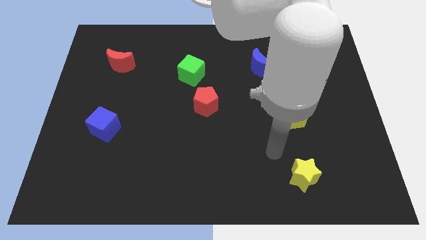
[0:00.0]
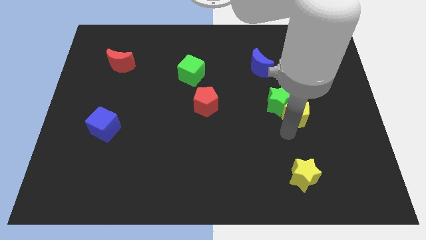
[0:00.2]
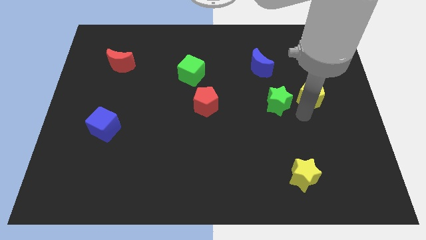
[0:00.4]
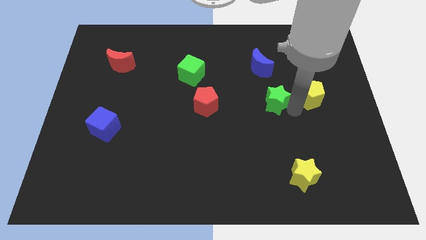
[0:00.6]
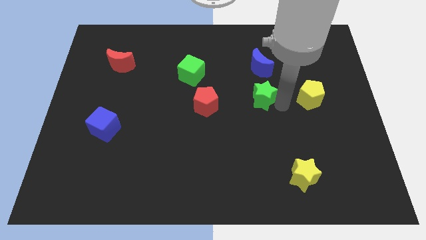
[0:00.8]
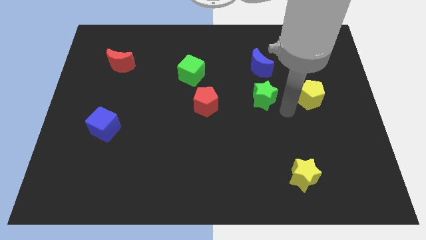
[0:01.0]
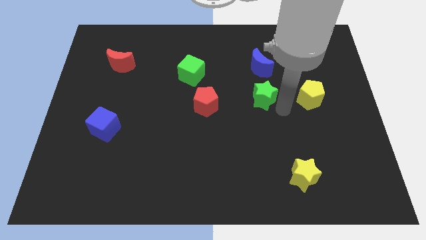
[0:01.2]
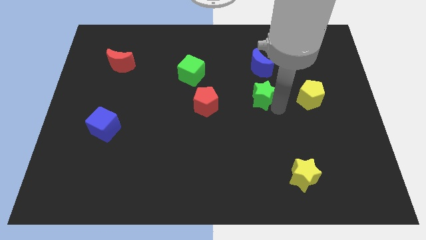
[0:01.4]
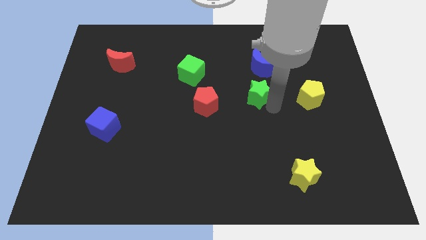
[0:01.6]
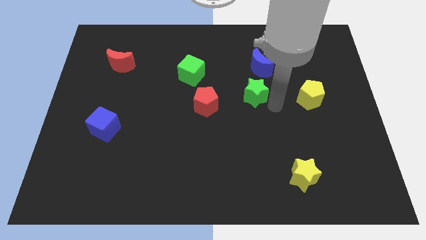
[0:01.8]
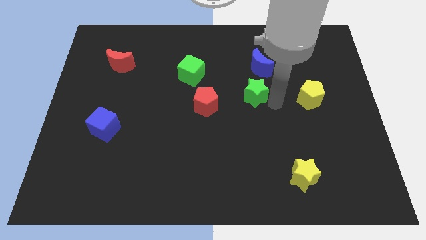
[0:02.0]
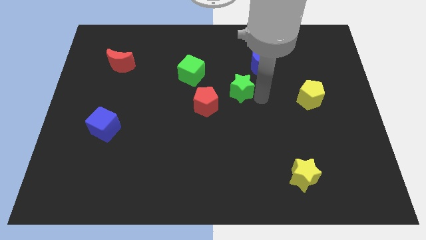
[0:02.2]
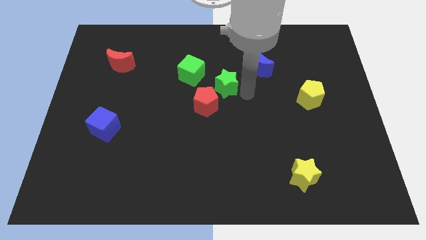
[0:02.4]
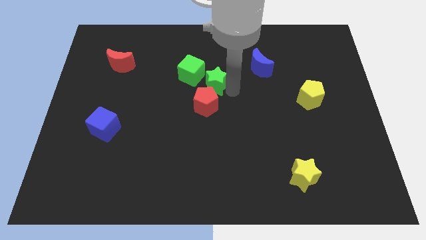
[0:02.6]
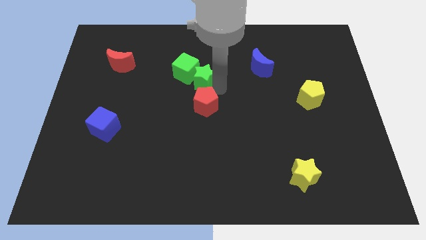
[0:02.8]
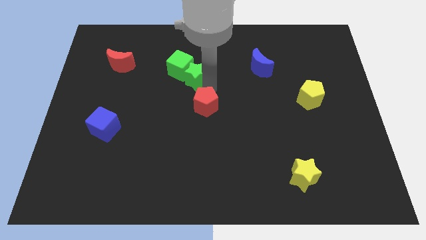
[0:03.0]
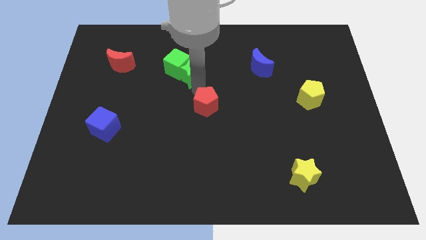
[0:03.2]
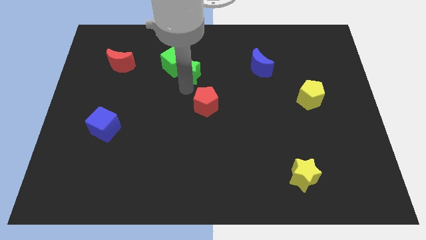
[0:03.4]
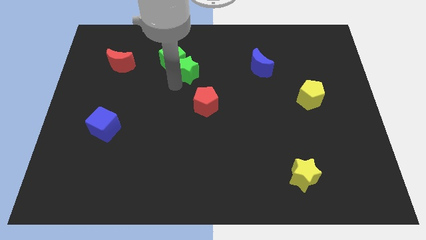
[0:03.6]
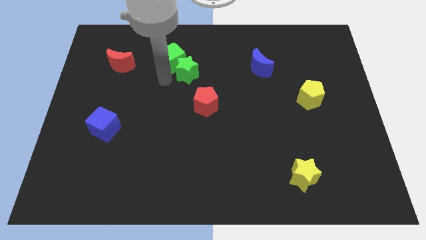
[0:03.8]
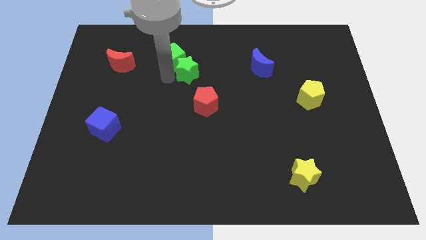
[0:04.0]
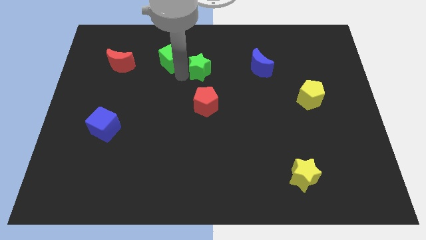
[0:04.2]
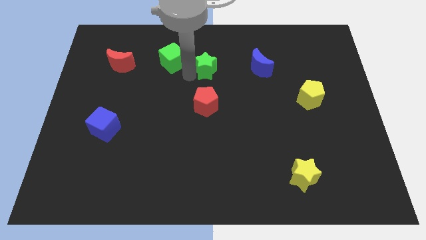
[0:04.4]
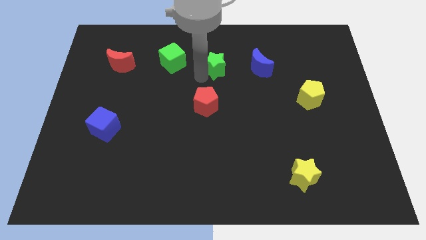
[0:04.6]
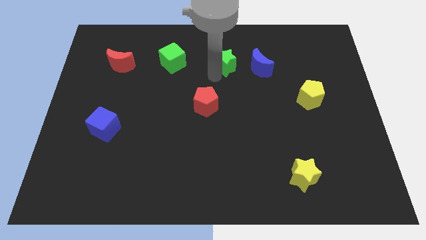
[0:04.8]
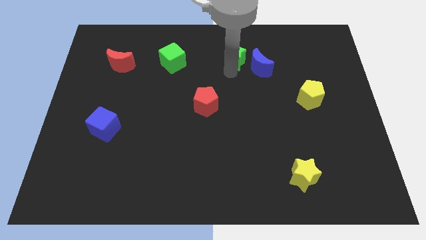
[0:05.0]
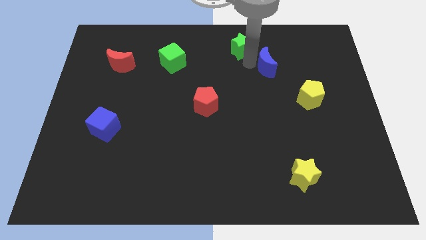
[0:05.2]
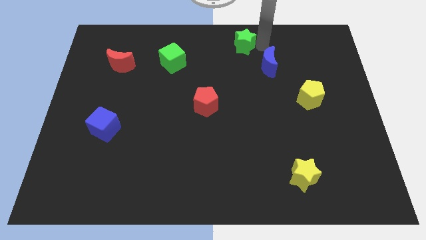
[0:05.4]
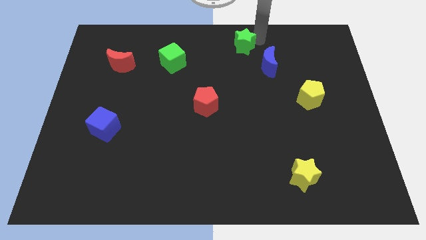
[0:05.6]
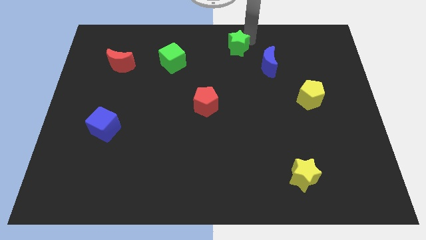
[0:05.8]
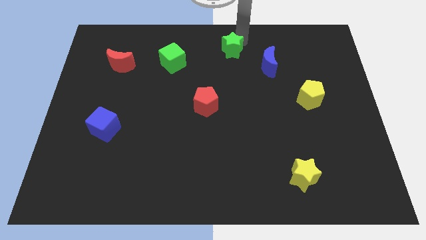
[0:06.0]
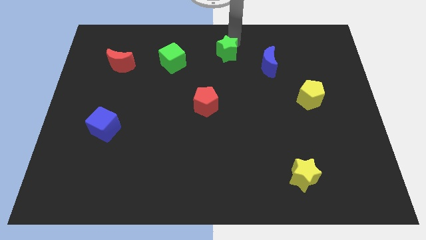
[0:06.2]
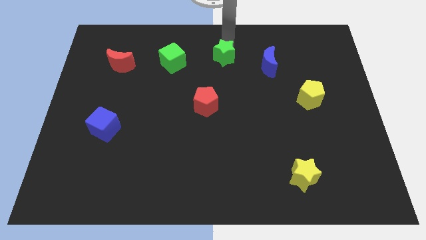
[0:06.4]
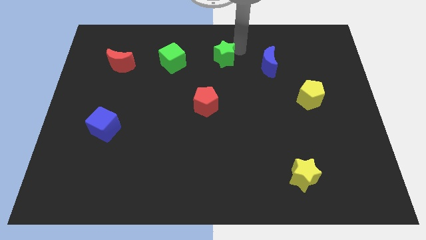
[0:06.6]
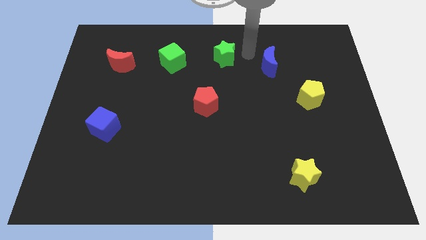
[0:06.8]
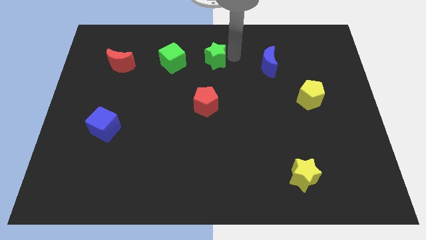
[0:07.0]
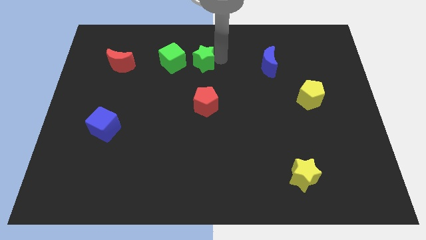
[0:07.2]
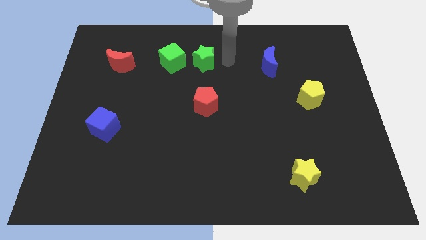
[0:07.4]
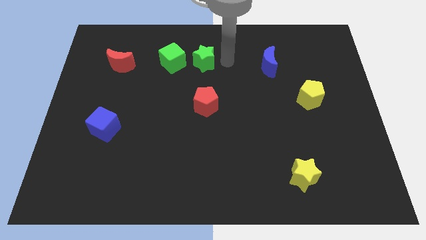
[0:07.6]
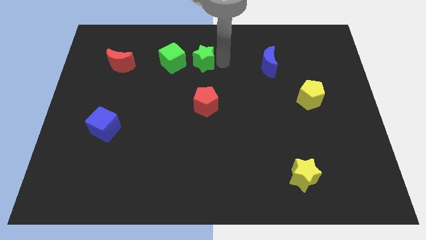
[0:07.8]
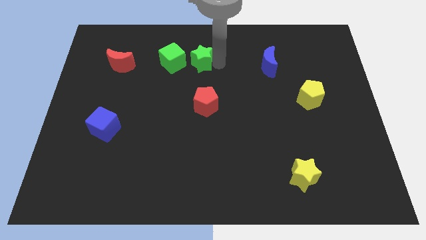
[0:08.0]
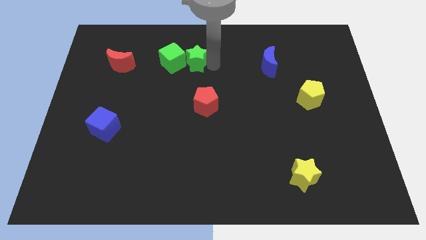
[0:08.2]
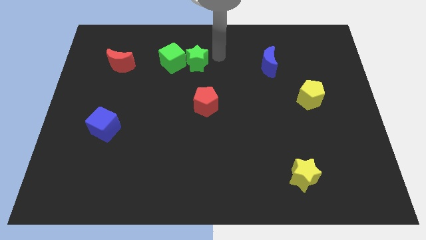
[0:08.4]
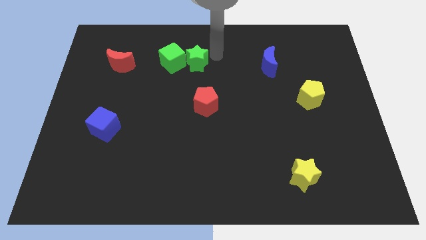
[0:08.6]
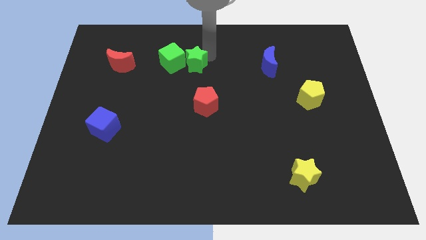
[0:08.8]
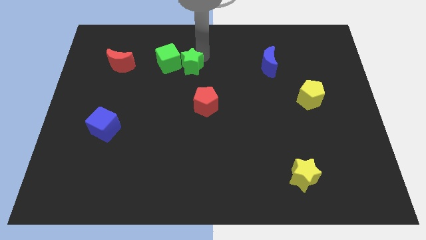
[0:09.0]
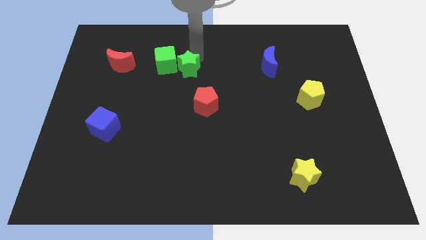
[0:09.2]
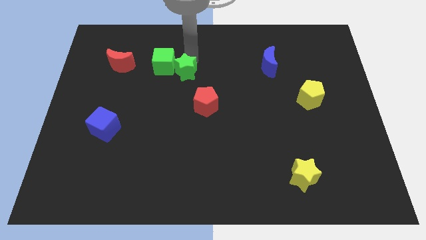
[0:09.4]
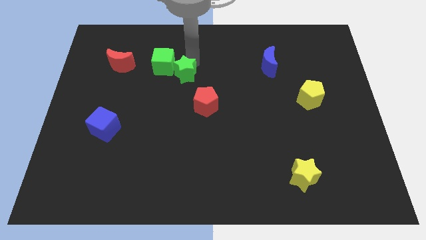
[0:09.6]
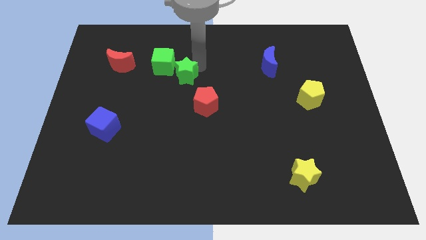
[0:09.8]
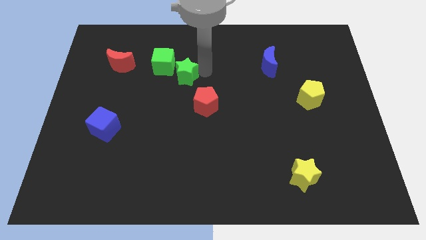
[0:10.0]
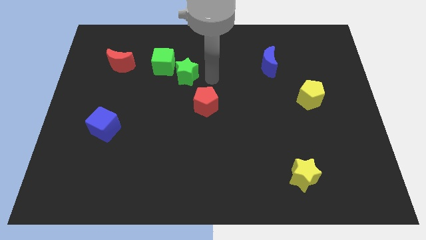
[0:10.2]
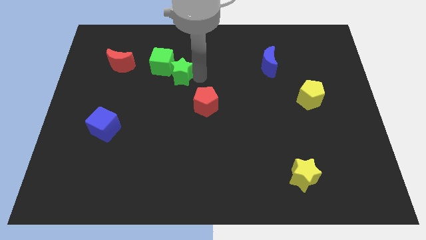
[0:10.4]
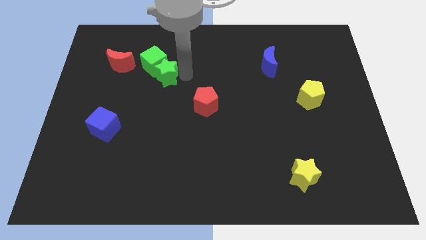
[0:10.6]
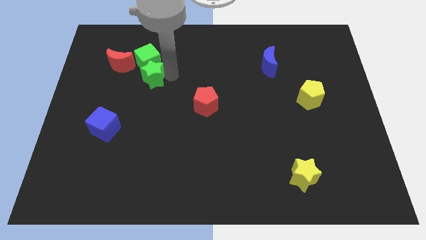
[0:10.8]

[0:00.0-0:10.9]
push the green star to the bottom right side of the red moon

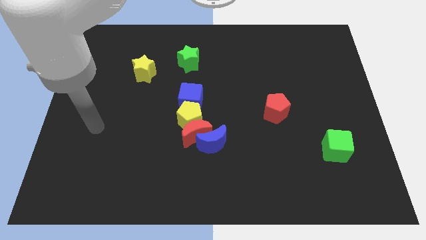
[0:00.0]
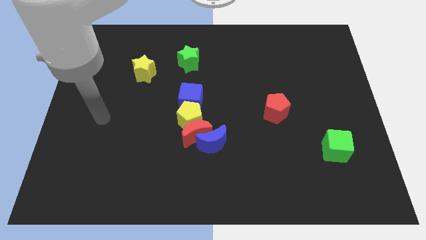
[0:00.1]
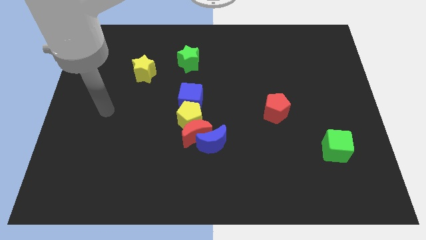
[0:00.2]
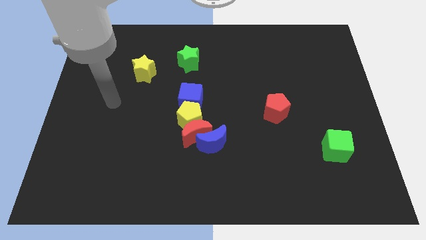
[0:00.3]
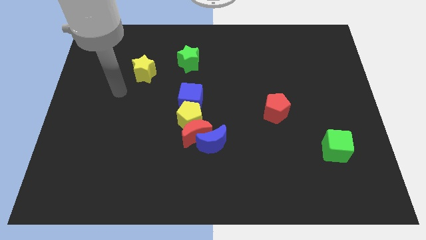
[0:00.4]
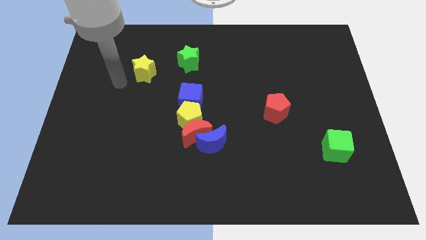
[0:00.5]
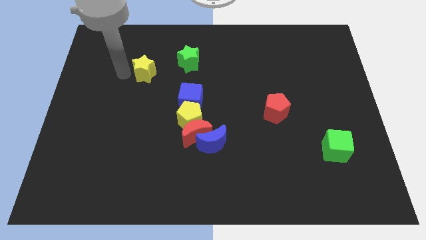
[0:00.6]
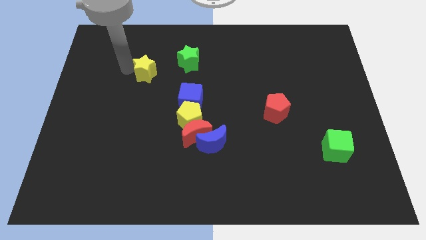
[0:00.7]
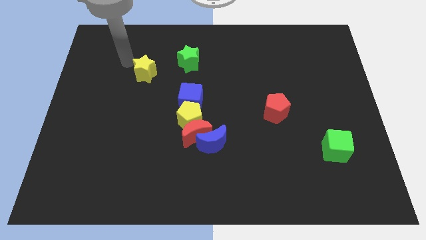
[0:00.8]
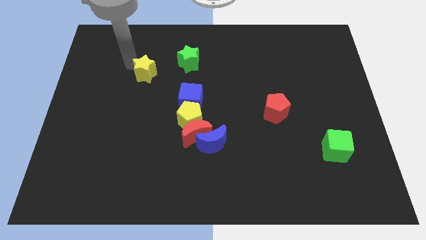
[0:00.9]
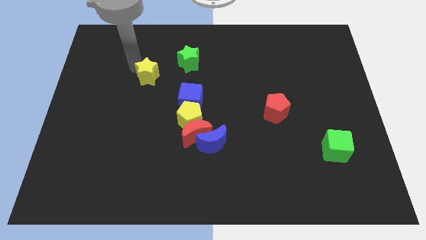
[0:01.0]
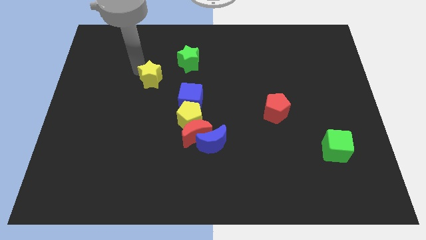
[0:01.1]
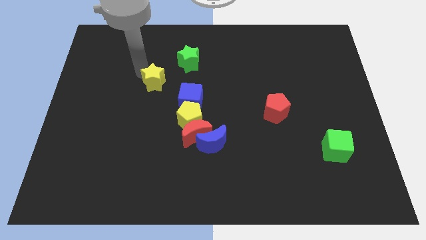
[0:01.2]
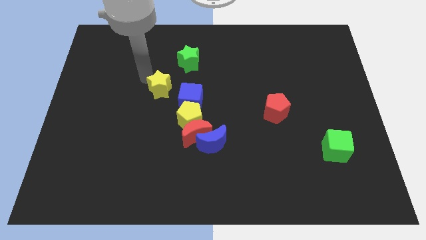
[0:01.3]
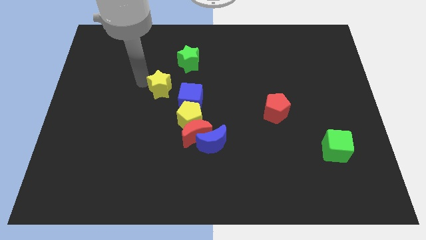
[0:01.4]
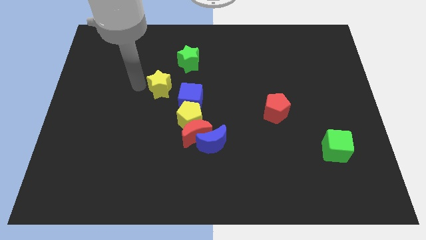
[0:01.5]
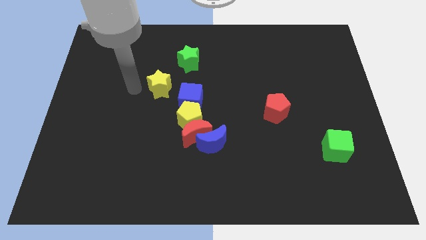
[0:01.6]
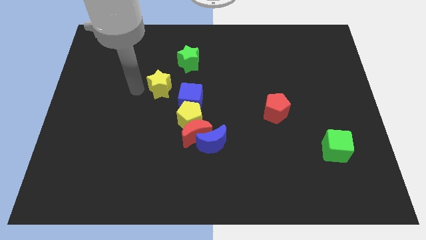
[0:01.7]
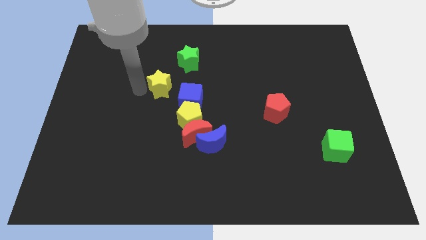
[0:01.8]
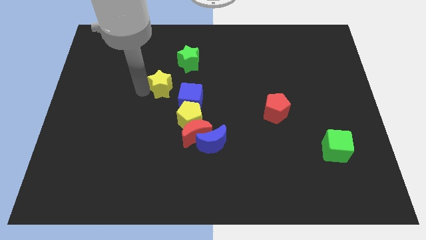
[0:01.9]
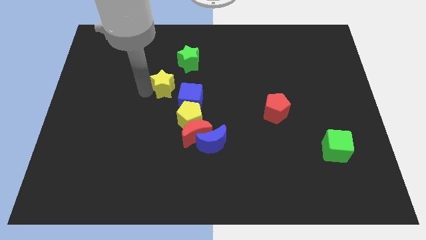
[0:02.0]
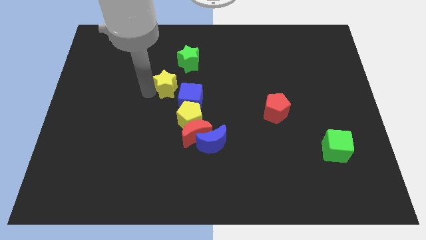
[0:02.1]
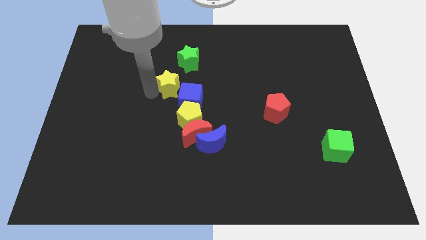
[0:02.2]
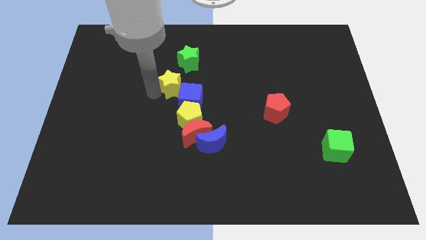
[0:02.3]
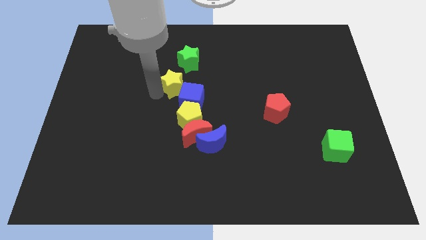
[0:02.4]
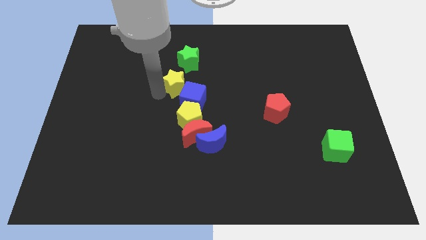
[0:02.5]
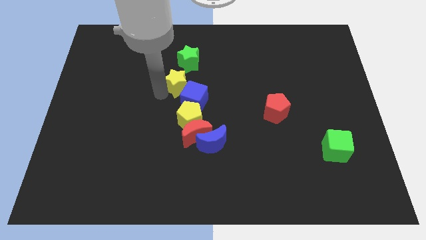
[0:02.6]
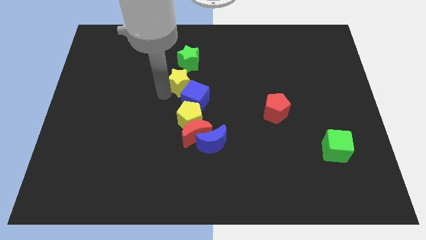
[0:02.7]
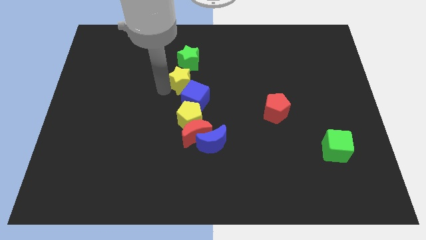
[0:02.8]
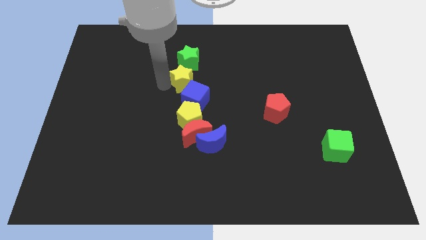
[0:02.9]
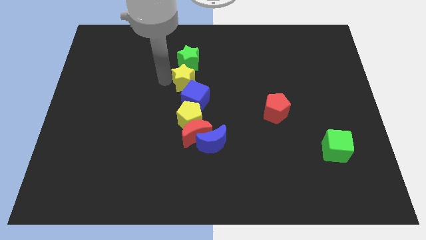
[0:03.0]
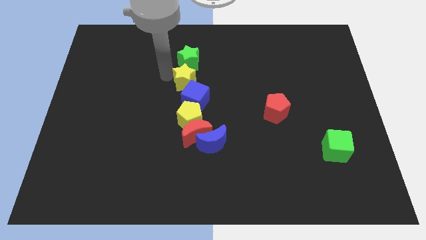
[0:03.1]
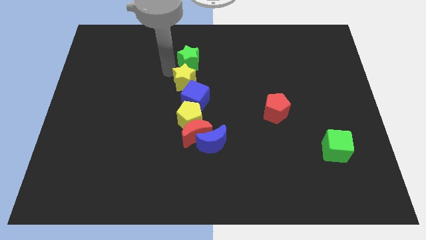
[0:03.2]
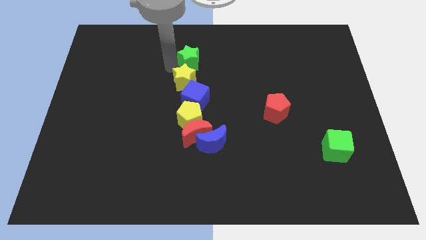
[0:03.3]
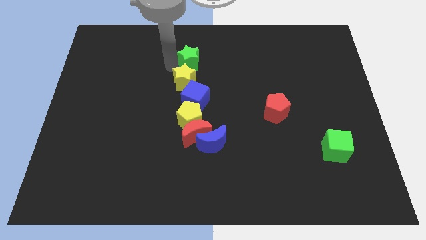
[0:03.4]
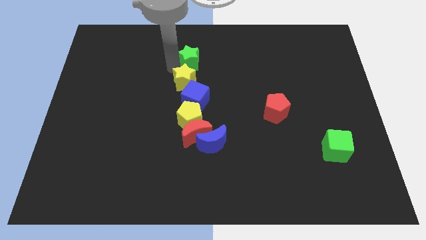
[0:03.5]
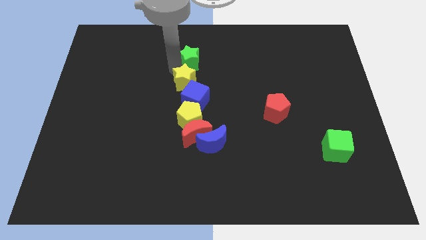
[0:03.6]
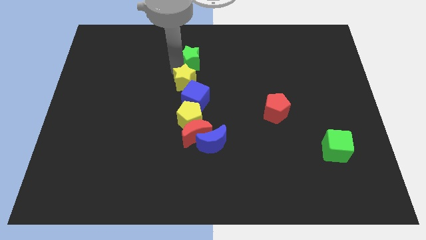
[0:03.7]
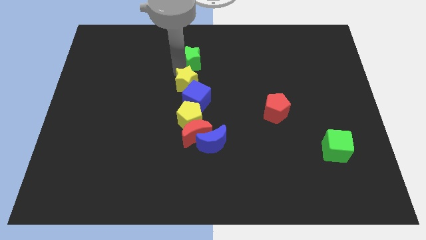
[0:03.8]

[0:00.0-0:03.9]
move the yellow star above the red moon
